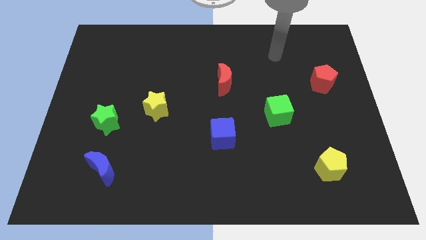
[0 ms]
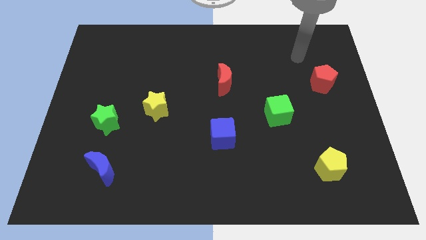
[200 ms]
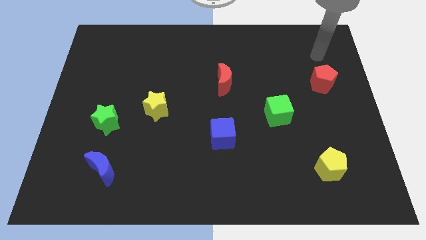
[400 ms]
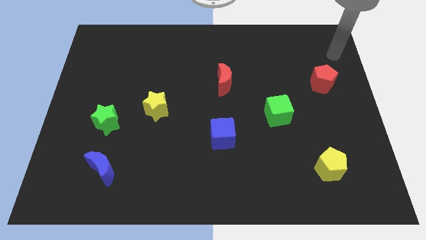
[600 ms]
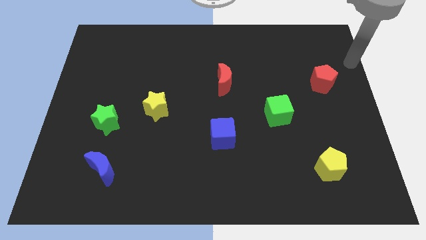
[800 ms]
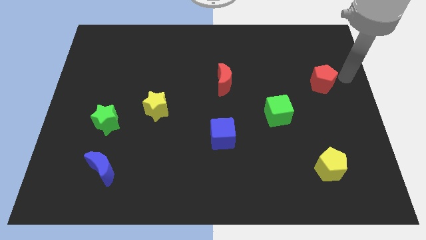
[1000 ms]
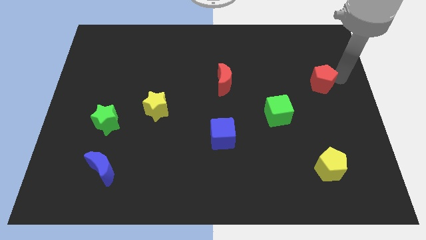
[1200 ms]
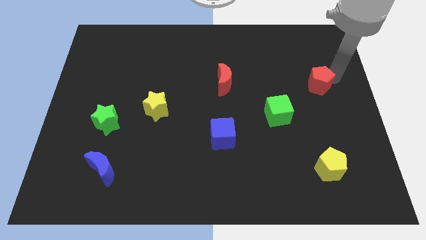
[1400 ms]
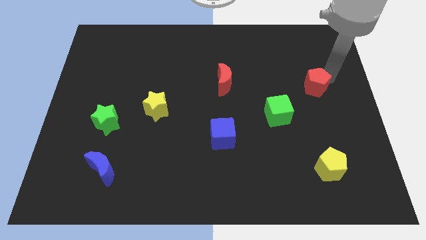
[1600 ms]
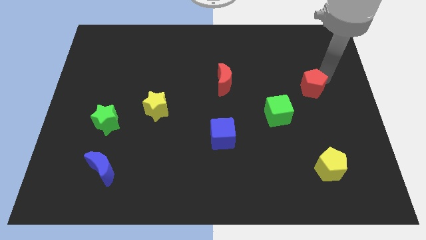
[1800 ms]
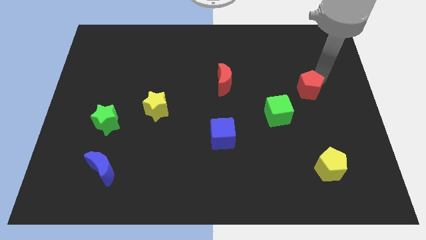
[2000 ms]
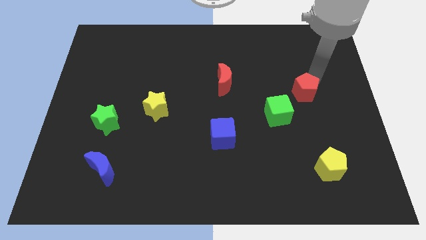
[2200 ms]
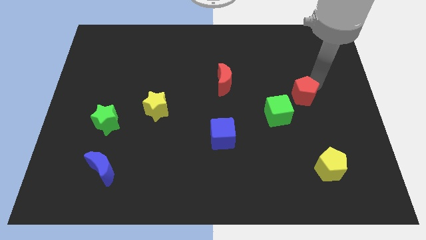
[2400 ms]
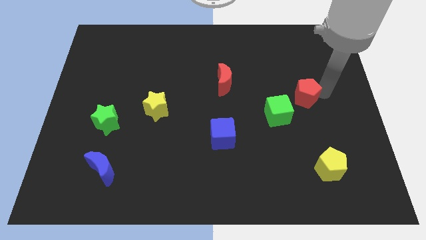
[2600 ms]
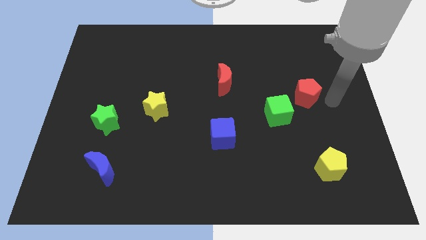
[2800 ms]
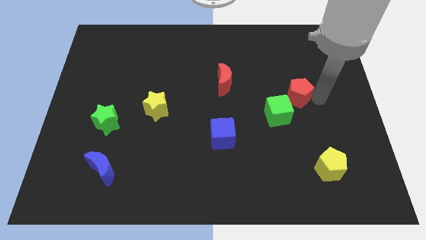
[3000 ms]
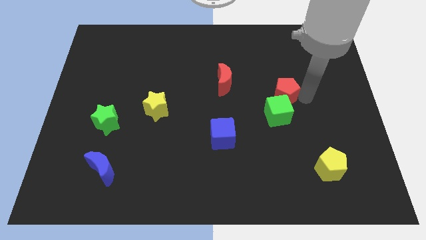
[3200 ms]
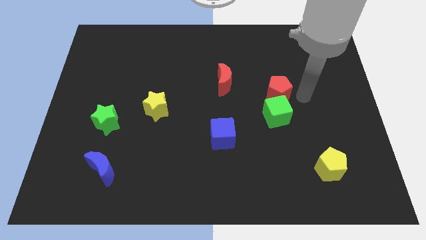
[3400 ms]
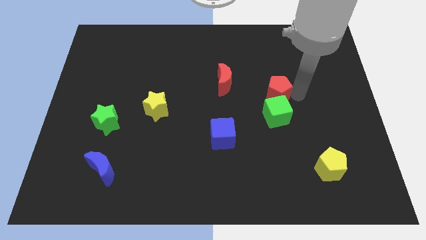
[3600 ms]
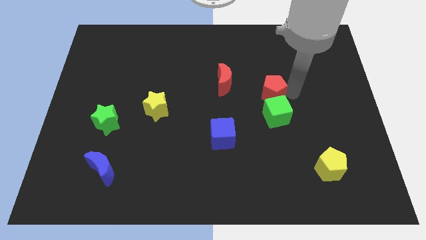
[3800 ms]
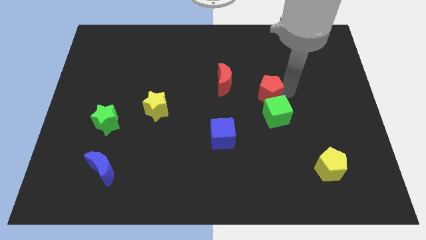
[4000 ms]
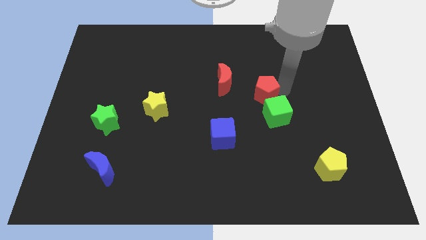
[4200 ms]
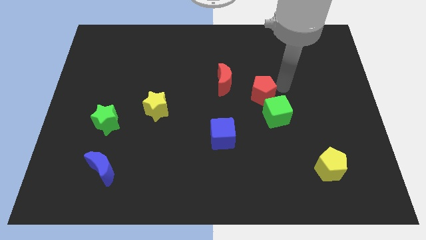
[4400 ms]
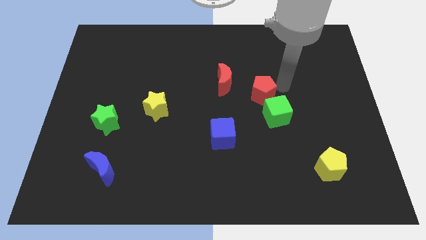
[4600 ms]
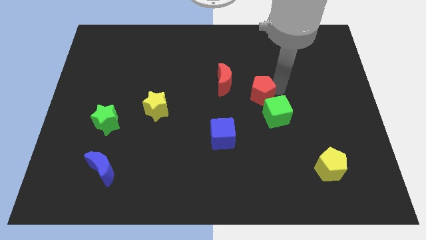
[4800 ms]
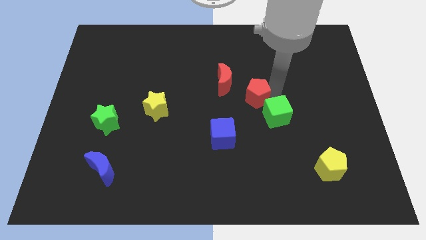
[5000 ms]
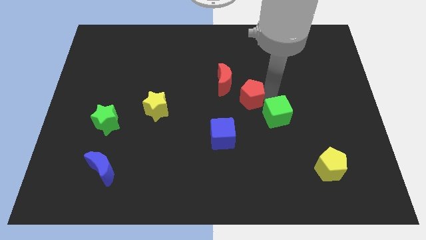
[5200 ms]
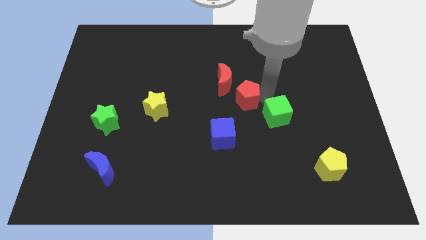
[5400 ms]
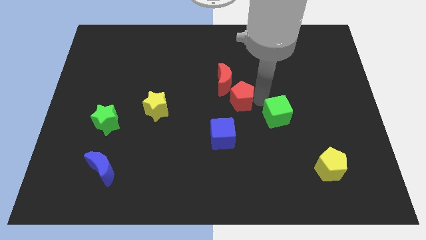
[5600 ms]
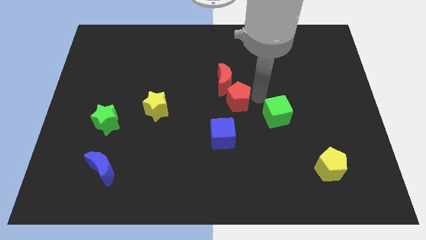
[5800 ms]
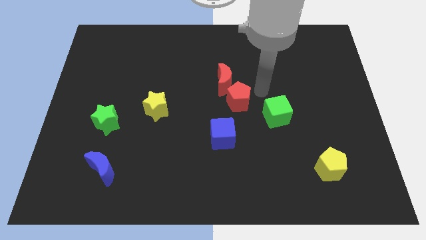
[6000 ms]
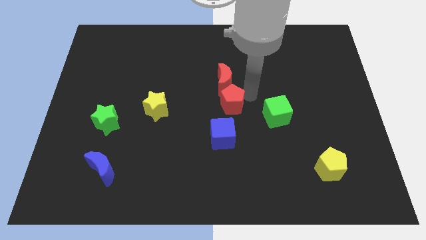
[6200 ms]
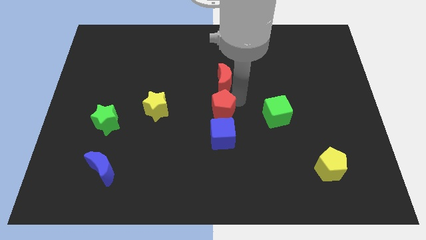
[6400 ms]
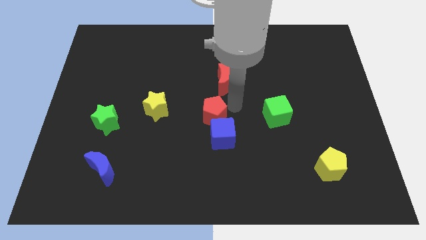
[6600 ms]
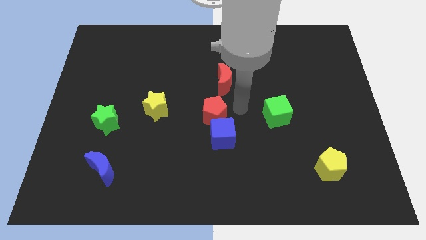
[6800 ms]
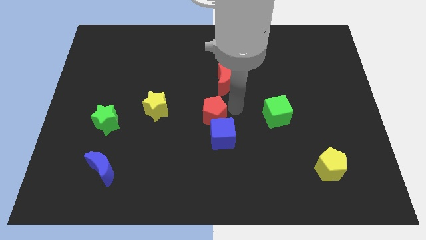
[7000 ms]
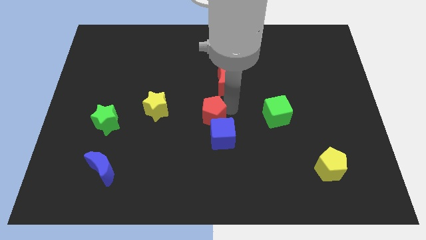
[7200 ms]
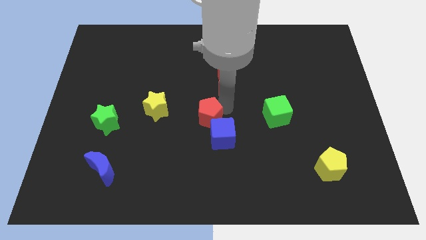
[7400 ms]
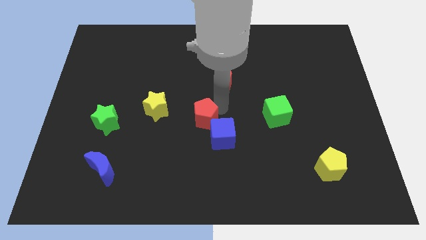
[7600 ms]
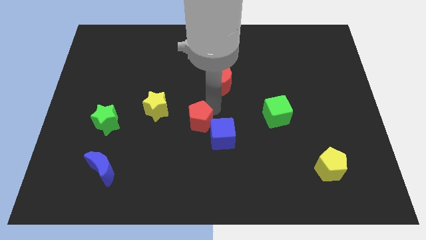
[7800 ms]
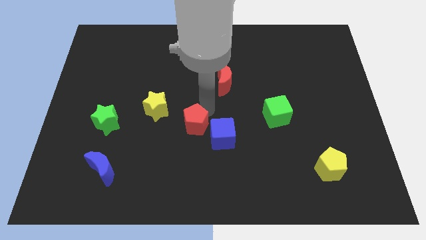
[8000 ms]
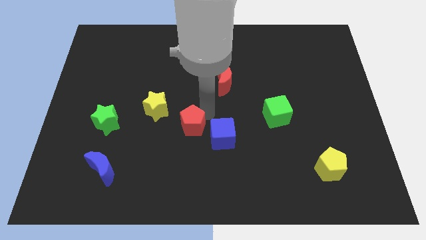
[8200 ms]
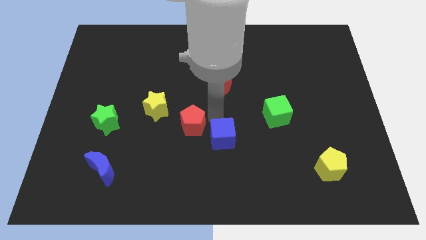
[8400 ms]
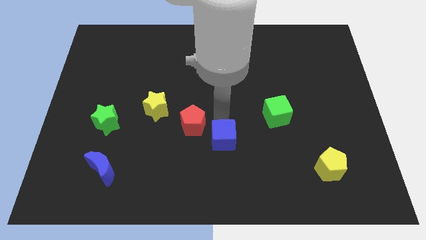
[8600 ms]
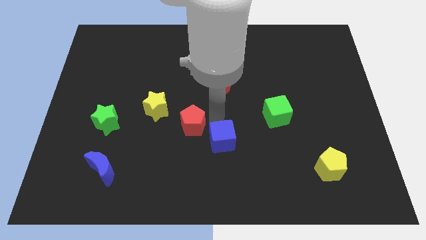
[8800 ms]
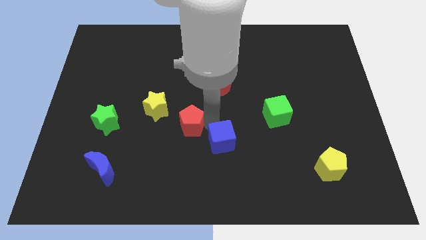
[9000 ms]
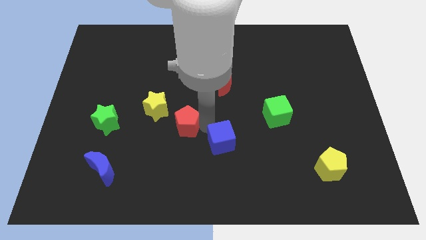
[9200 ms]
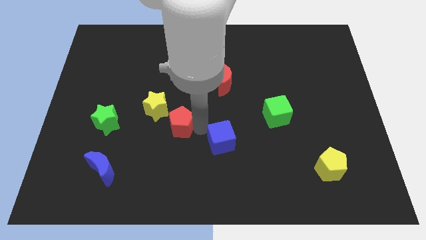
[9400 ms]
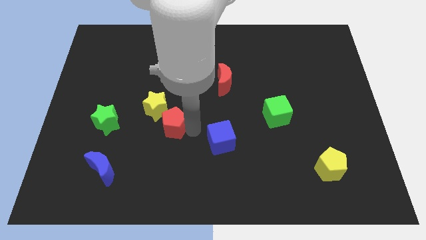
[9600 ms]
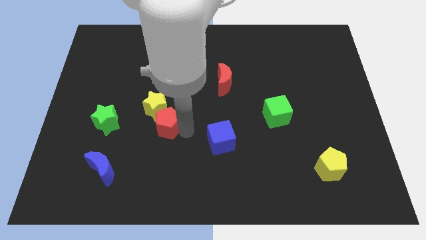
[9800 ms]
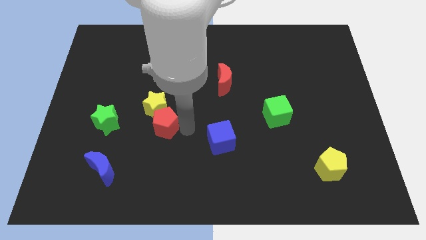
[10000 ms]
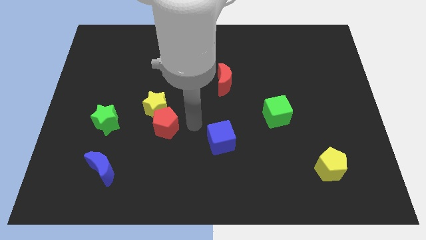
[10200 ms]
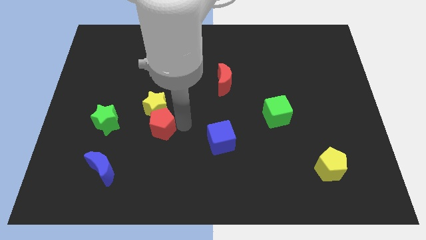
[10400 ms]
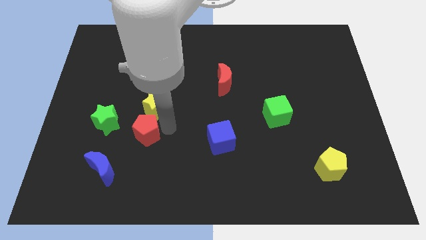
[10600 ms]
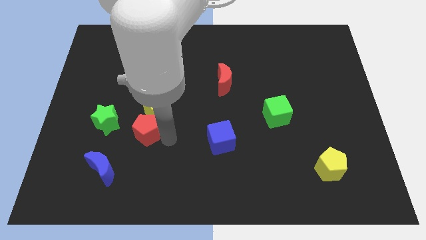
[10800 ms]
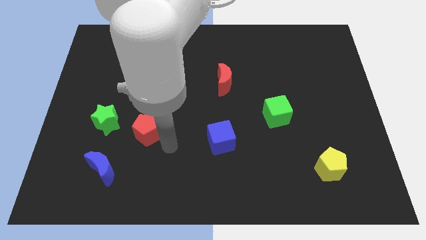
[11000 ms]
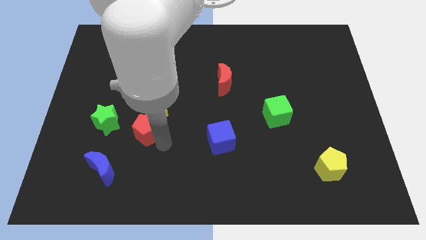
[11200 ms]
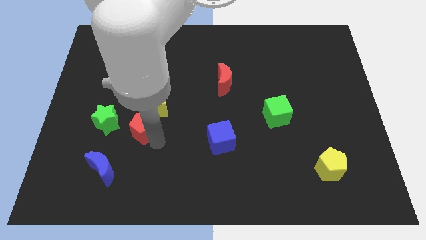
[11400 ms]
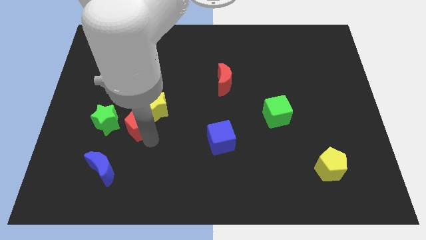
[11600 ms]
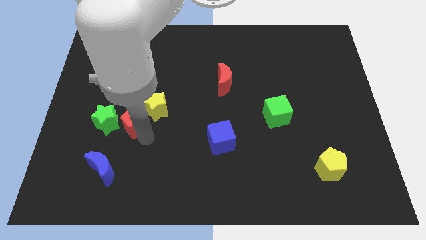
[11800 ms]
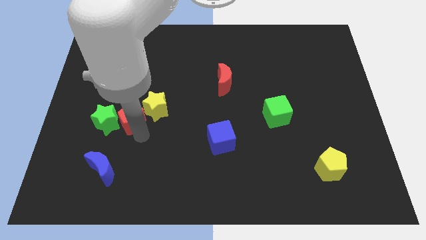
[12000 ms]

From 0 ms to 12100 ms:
push the red pentagon towards the green star

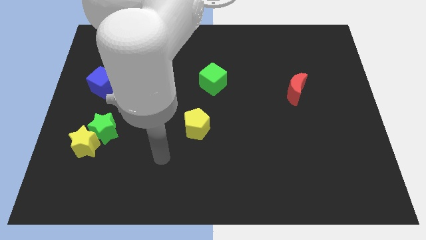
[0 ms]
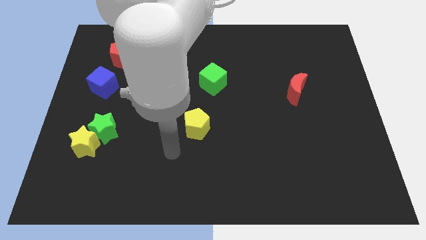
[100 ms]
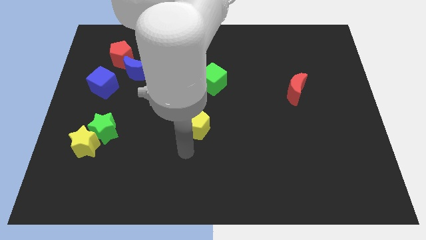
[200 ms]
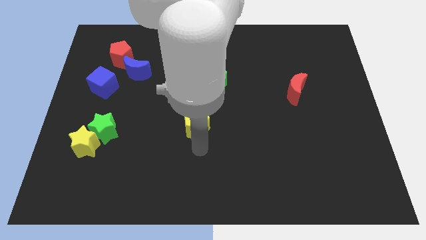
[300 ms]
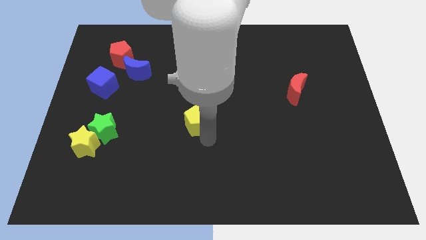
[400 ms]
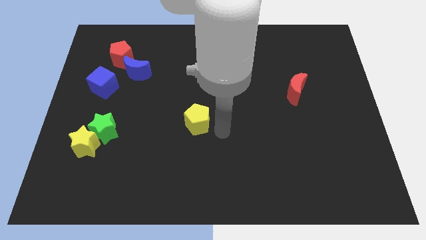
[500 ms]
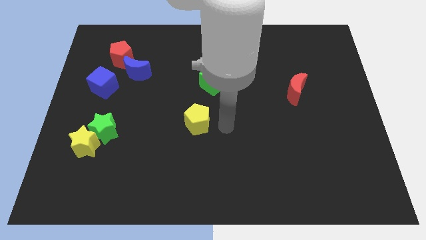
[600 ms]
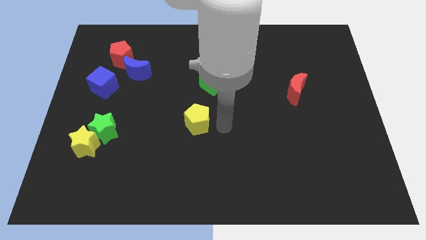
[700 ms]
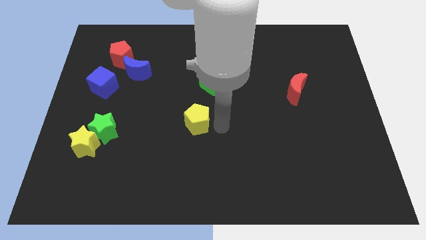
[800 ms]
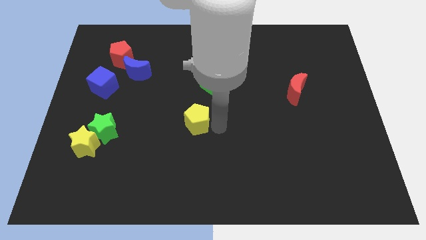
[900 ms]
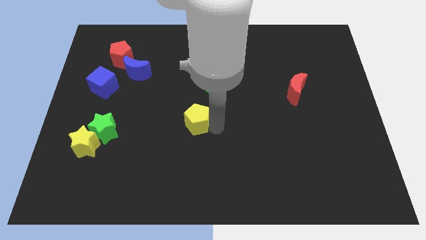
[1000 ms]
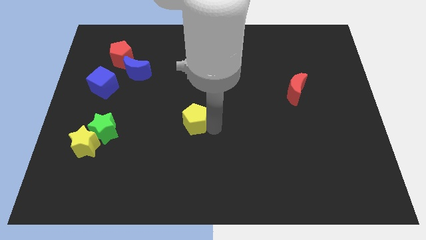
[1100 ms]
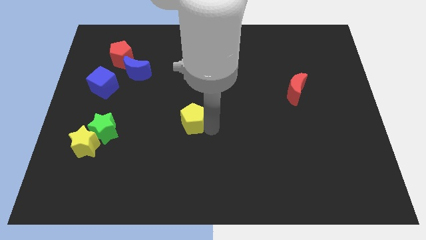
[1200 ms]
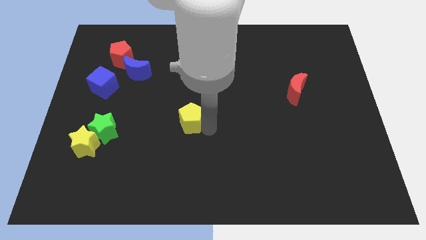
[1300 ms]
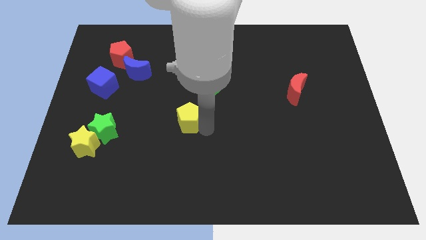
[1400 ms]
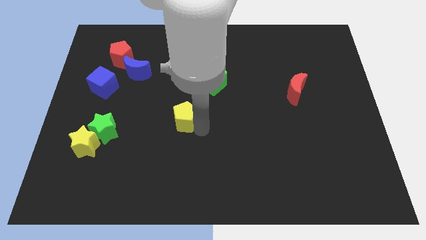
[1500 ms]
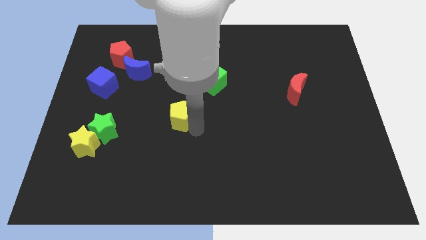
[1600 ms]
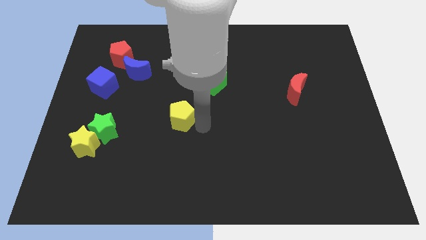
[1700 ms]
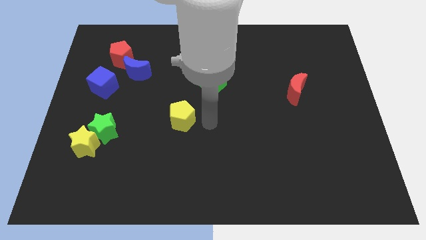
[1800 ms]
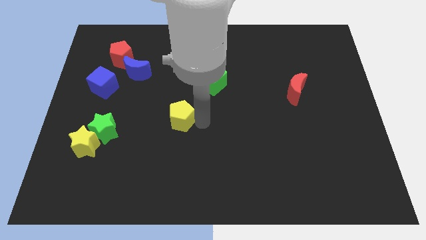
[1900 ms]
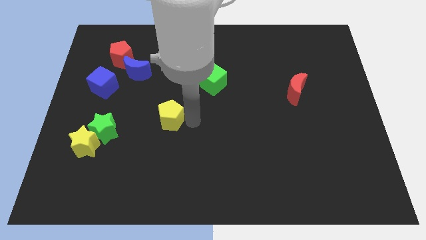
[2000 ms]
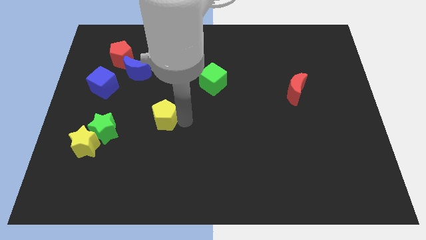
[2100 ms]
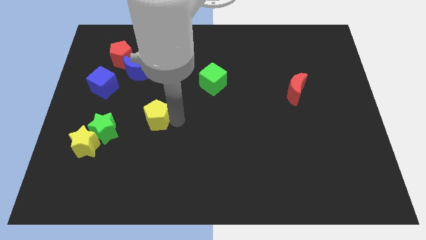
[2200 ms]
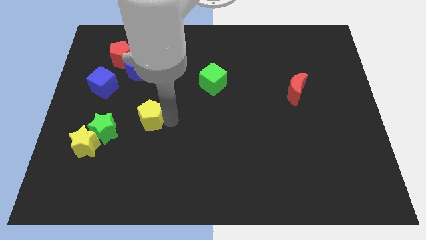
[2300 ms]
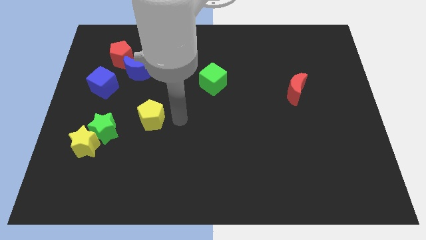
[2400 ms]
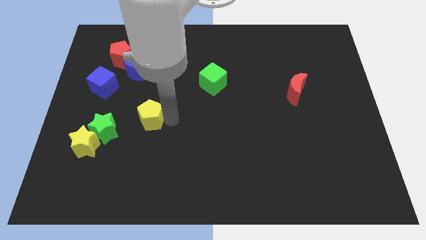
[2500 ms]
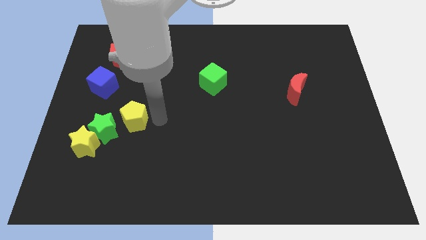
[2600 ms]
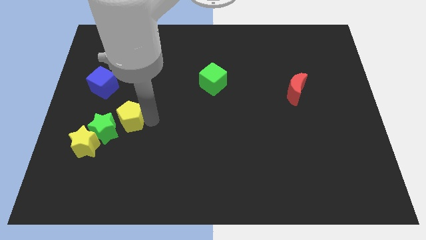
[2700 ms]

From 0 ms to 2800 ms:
move the yellow pentagon towards the green star
